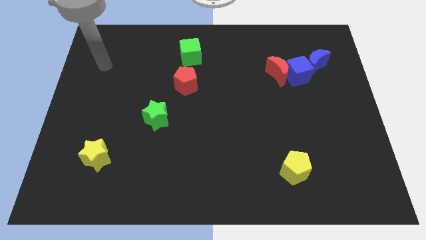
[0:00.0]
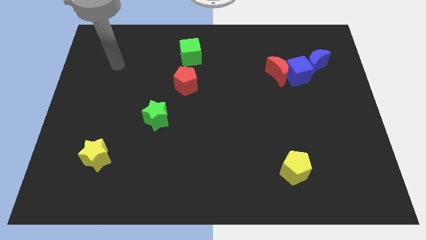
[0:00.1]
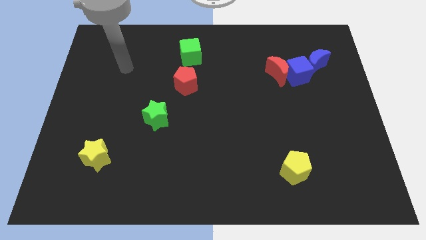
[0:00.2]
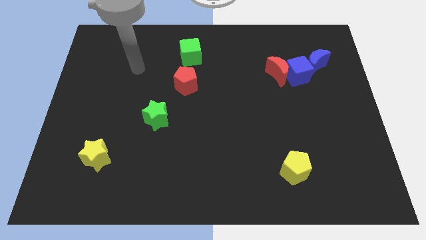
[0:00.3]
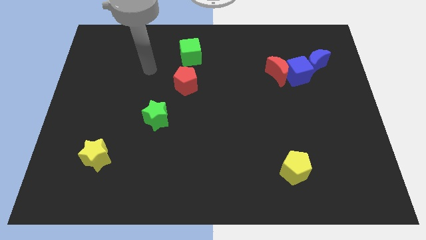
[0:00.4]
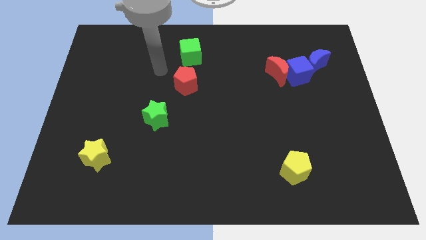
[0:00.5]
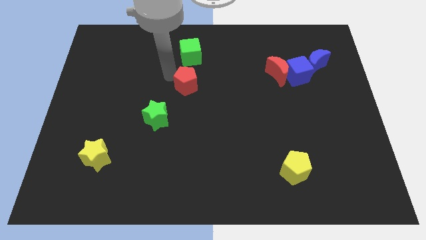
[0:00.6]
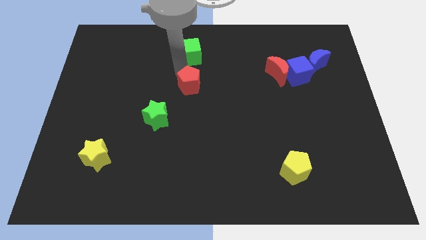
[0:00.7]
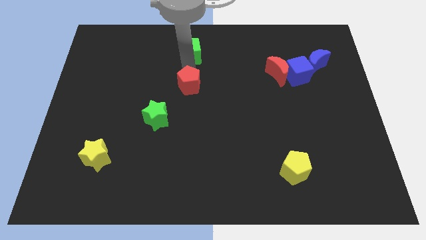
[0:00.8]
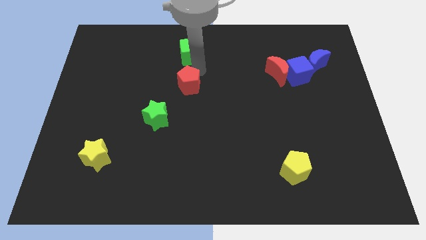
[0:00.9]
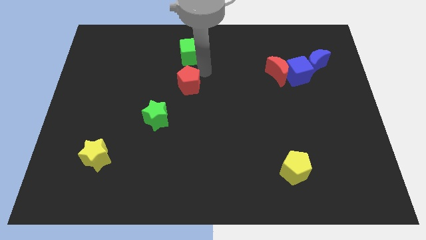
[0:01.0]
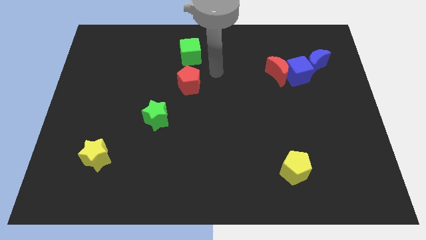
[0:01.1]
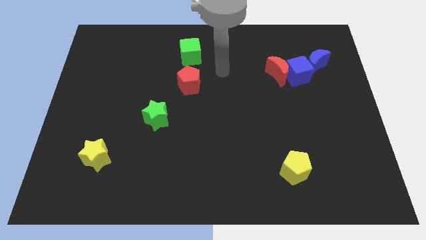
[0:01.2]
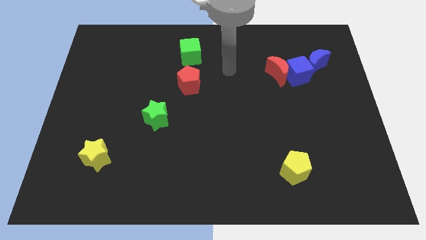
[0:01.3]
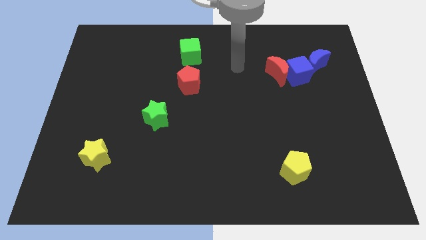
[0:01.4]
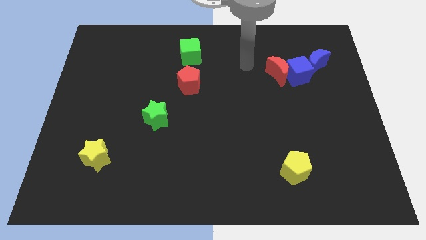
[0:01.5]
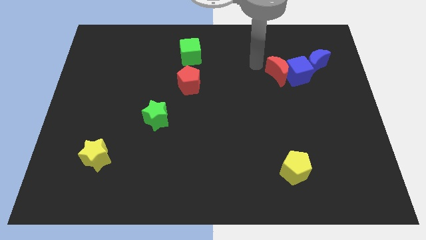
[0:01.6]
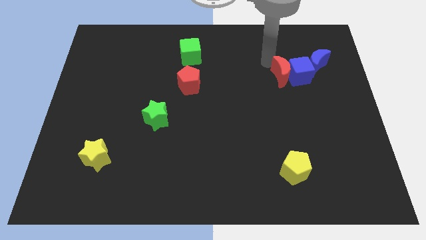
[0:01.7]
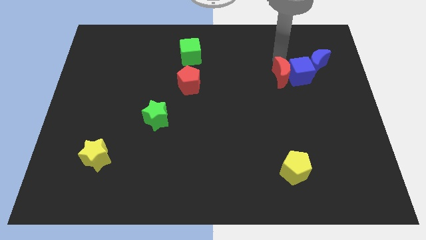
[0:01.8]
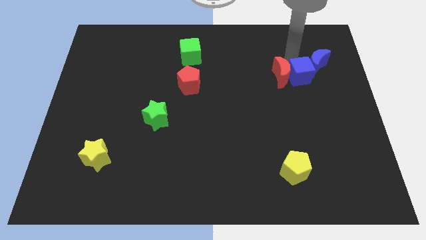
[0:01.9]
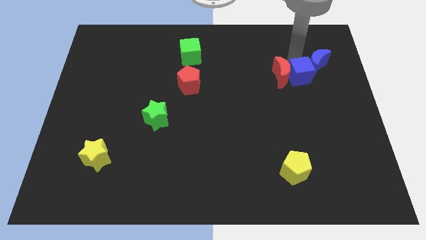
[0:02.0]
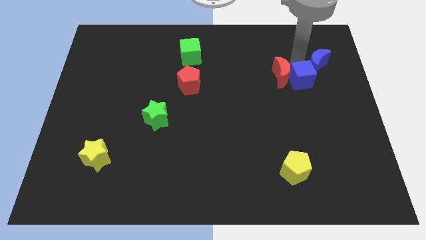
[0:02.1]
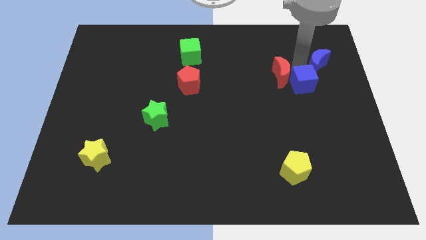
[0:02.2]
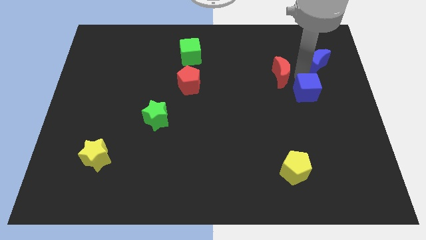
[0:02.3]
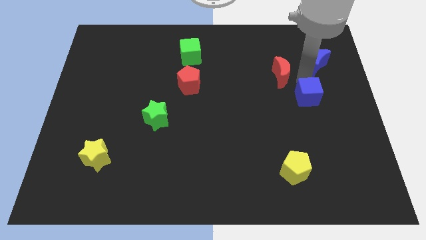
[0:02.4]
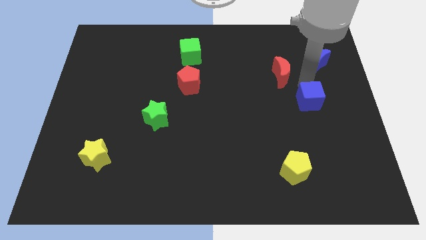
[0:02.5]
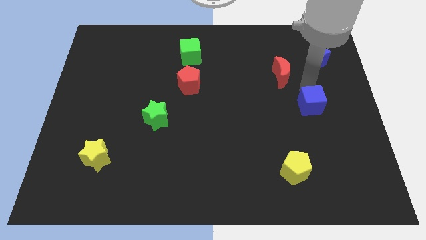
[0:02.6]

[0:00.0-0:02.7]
separate the blue cube from the red moon and blue moon

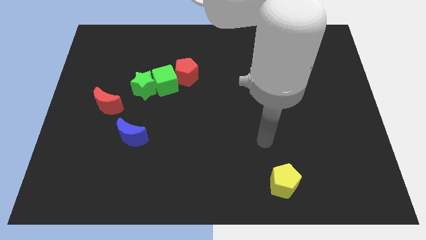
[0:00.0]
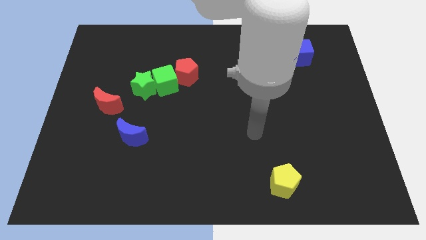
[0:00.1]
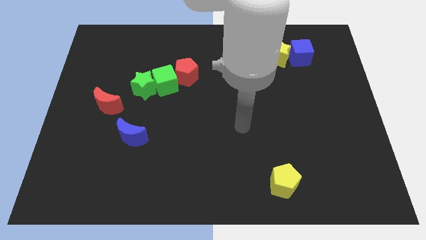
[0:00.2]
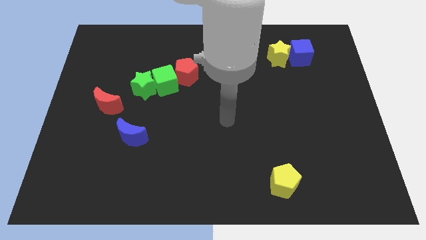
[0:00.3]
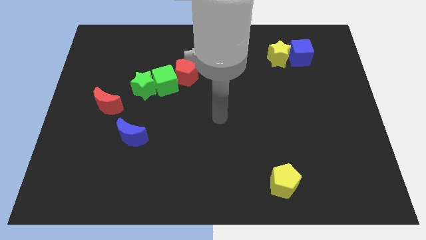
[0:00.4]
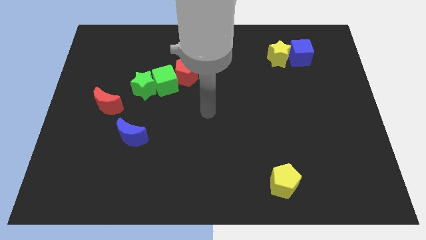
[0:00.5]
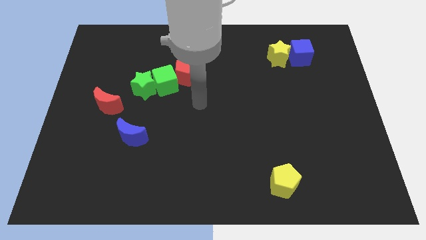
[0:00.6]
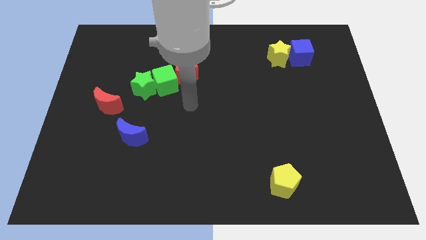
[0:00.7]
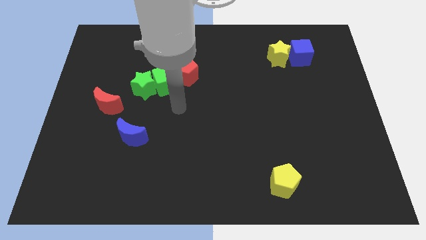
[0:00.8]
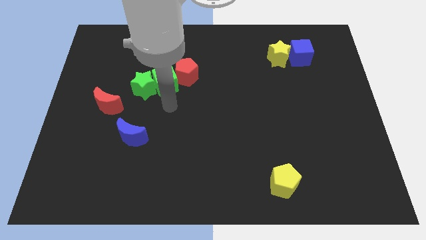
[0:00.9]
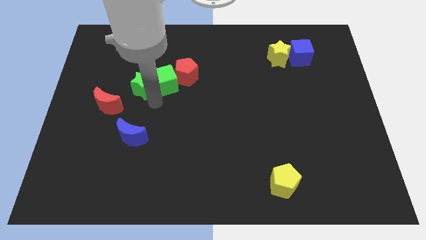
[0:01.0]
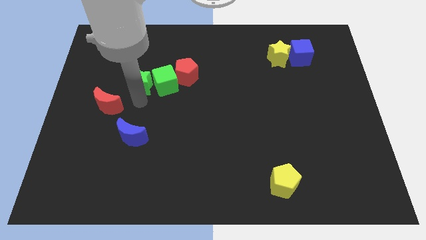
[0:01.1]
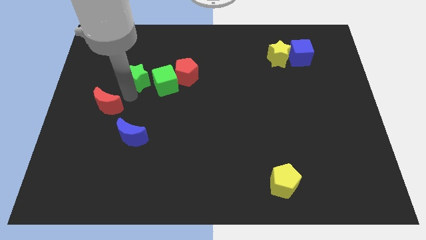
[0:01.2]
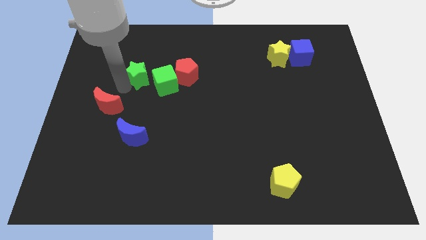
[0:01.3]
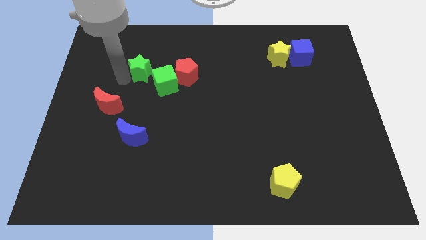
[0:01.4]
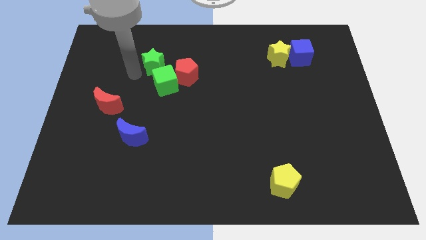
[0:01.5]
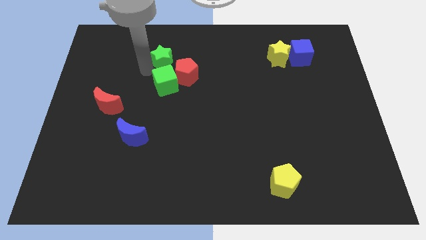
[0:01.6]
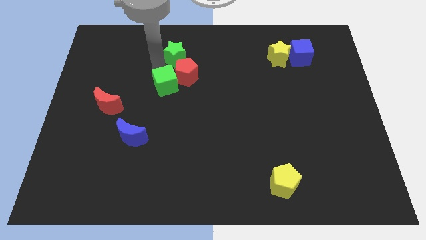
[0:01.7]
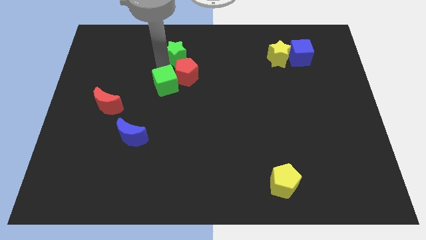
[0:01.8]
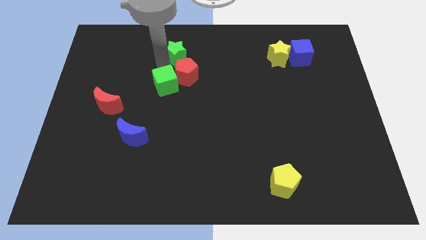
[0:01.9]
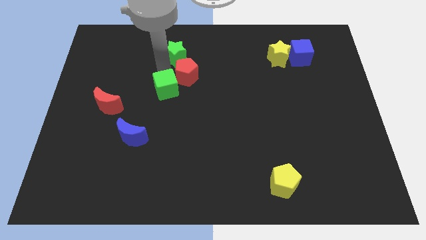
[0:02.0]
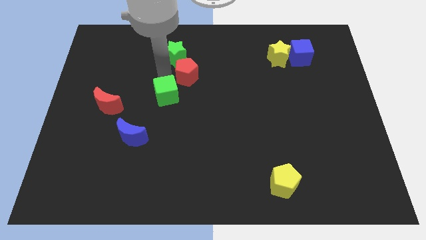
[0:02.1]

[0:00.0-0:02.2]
move the green cube away from the green star and red pentagon

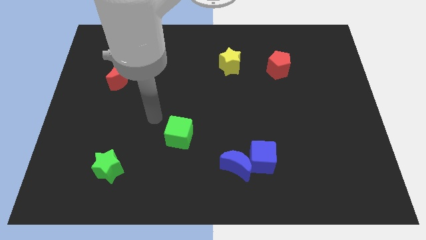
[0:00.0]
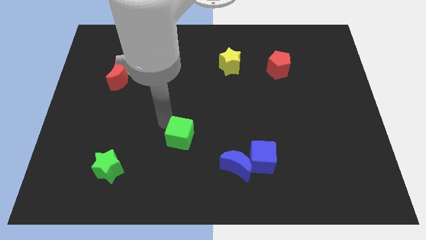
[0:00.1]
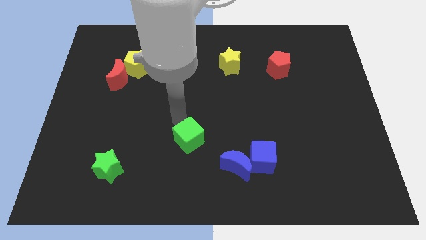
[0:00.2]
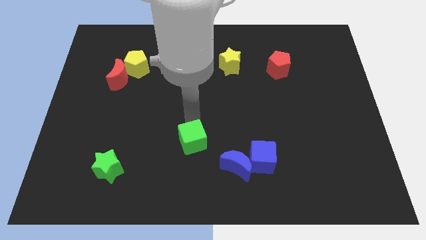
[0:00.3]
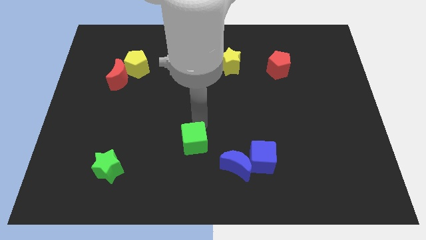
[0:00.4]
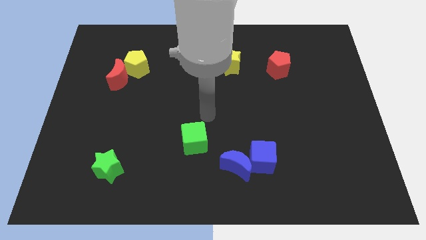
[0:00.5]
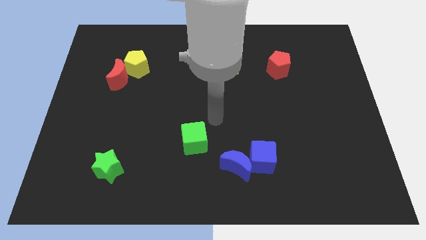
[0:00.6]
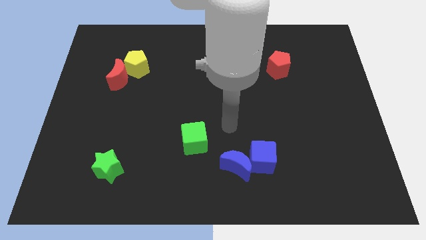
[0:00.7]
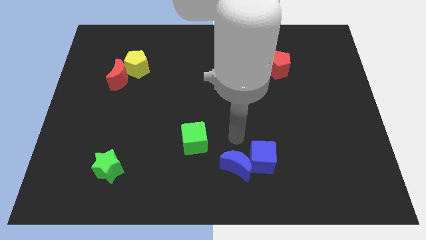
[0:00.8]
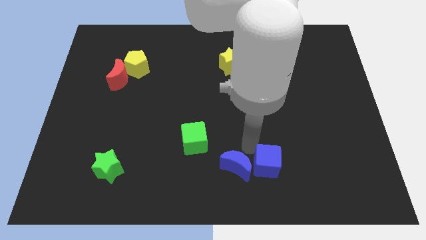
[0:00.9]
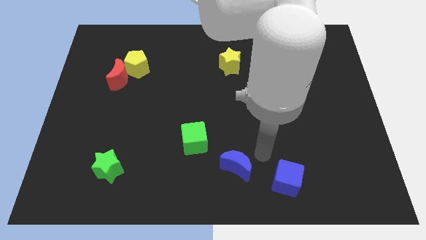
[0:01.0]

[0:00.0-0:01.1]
pull the blue moon apart from the blue cube

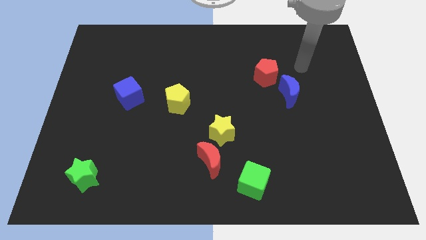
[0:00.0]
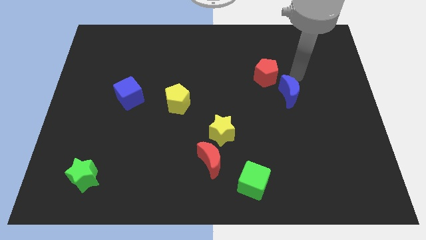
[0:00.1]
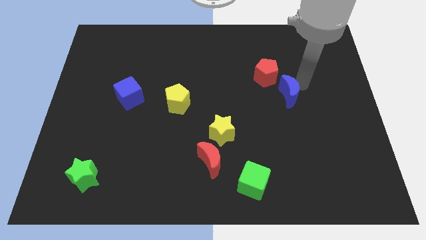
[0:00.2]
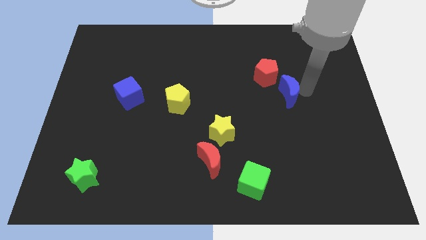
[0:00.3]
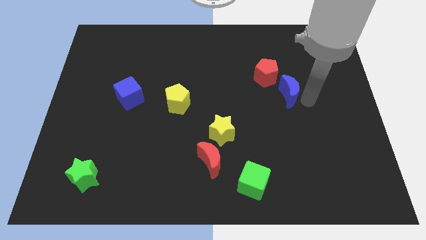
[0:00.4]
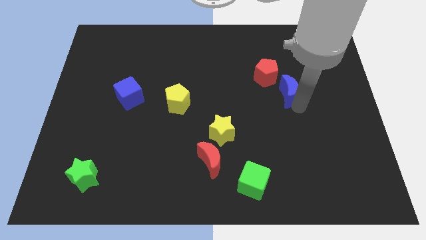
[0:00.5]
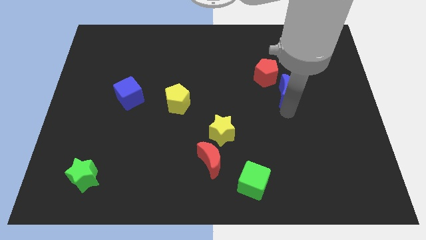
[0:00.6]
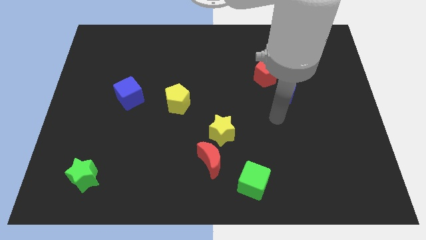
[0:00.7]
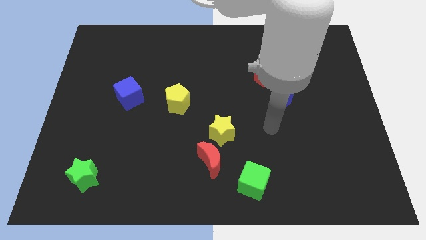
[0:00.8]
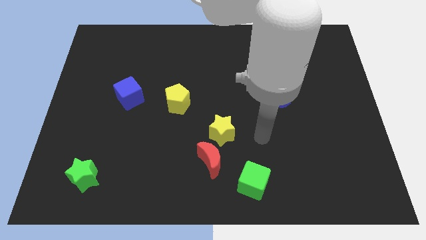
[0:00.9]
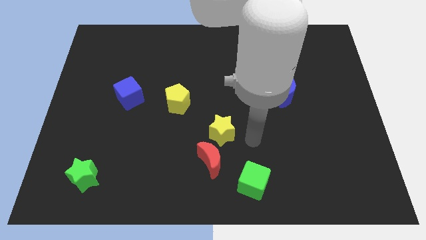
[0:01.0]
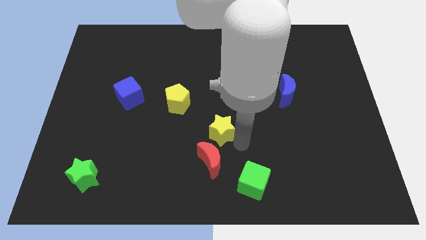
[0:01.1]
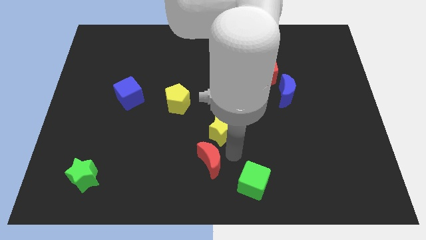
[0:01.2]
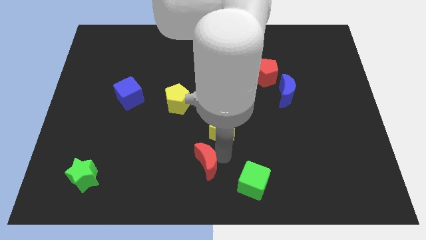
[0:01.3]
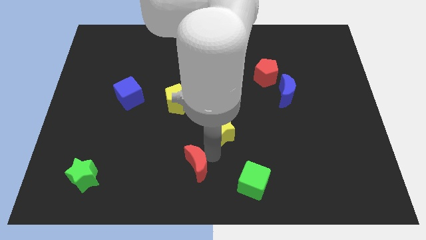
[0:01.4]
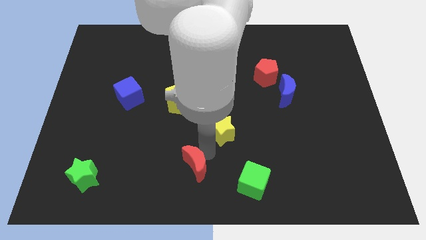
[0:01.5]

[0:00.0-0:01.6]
pull the yellow star apart from the red moon

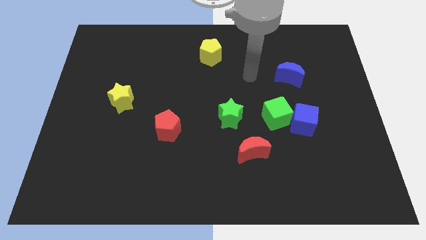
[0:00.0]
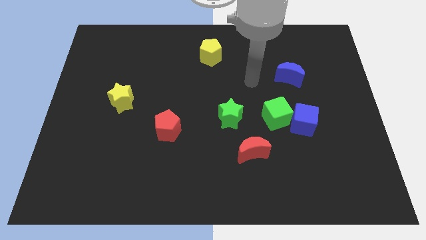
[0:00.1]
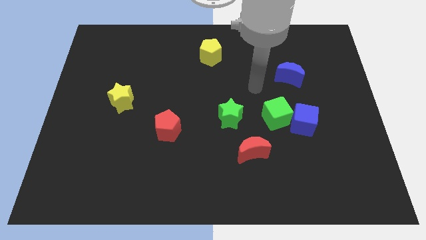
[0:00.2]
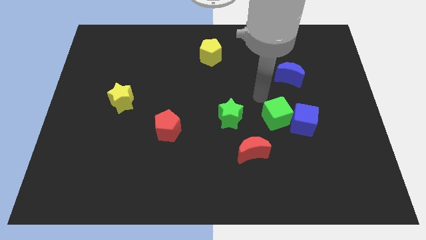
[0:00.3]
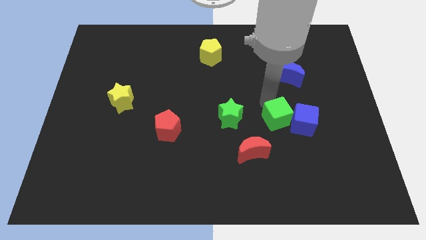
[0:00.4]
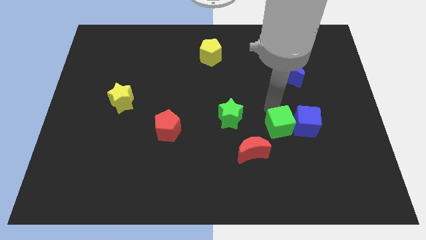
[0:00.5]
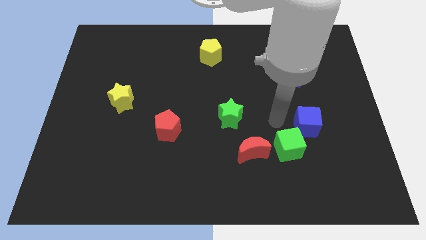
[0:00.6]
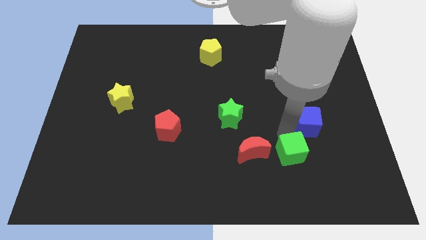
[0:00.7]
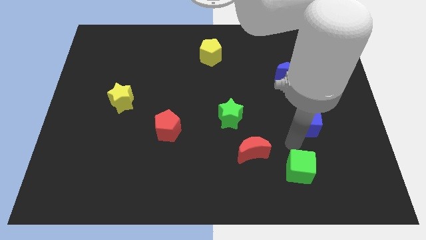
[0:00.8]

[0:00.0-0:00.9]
separate the blue cube from the green cube

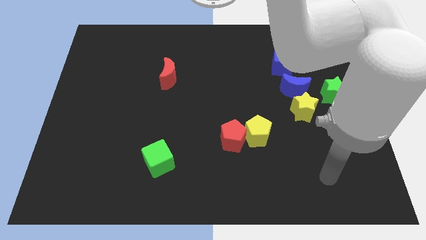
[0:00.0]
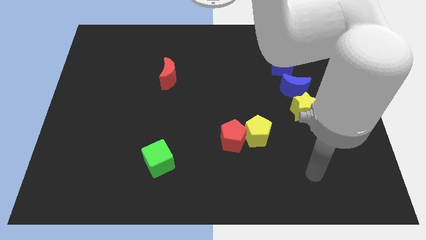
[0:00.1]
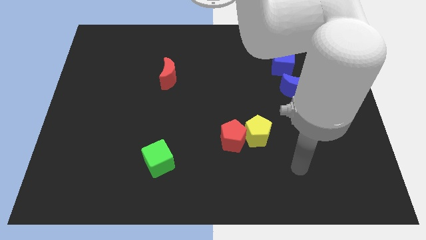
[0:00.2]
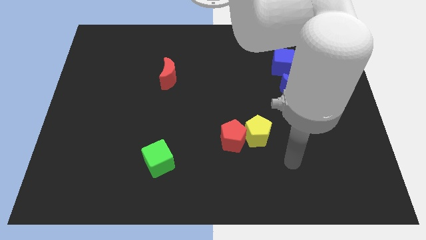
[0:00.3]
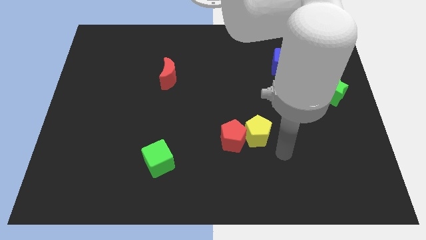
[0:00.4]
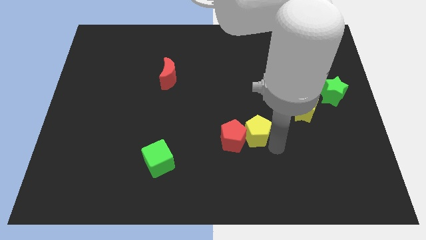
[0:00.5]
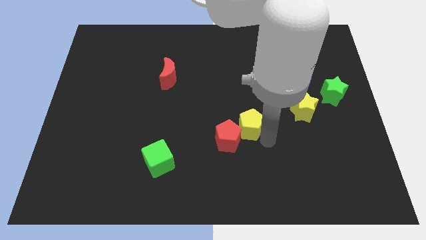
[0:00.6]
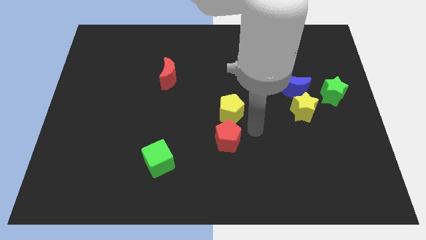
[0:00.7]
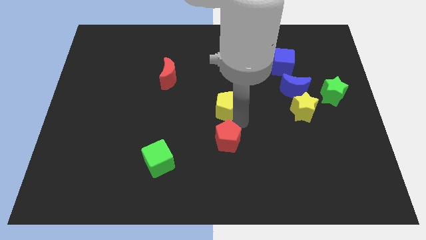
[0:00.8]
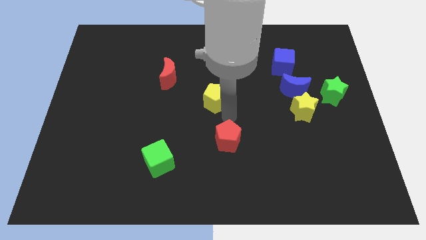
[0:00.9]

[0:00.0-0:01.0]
move the red pentagon away from the yellow pentagon
